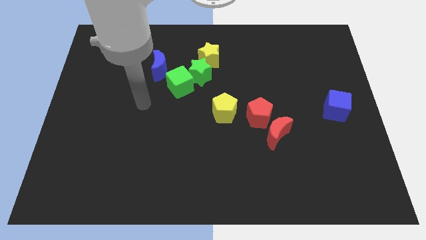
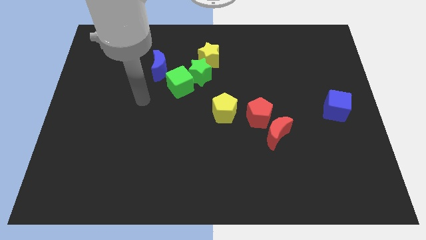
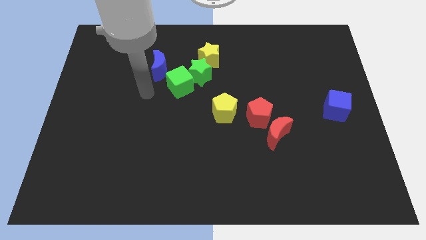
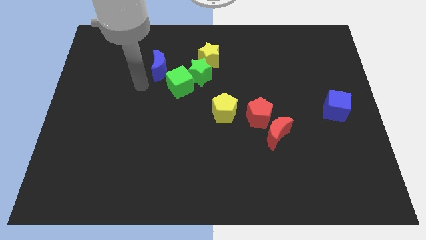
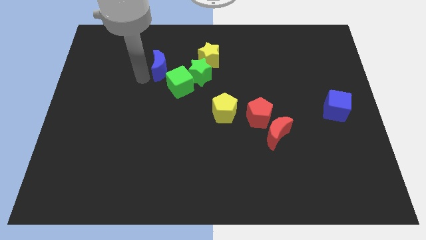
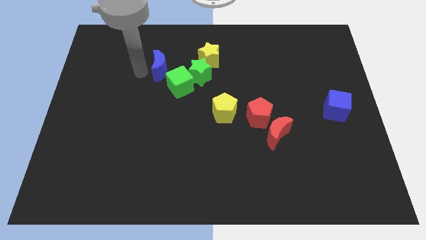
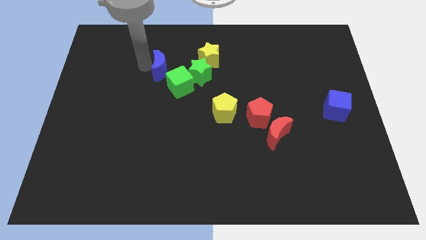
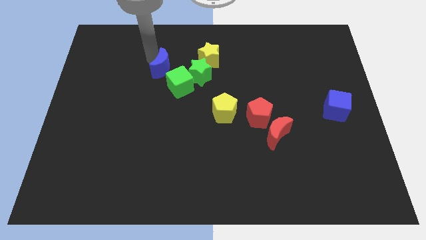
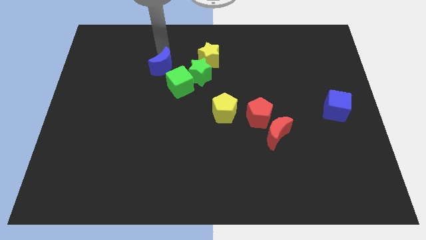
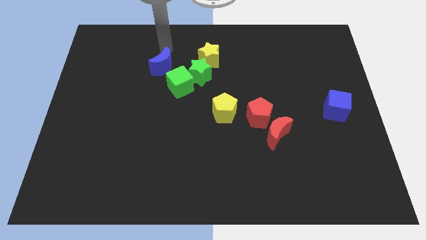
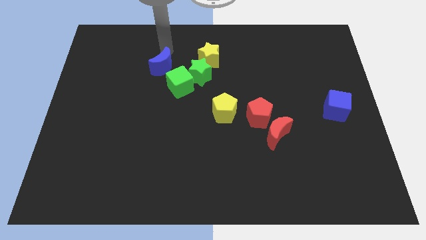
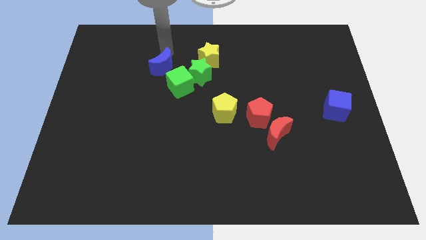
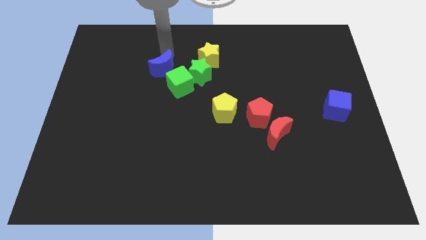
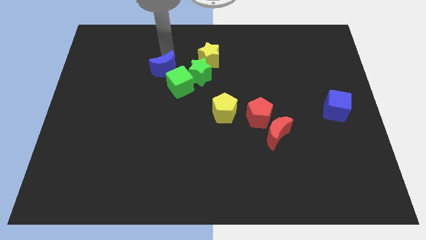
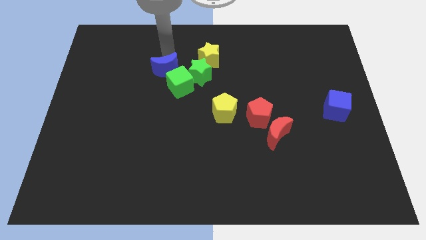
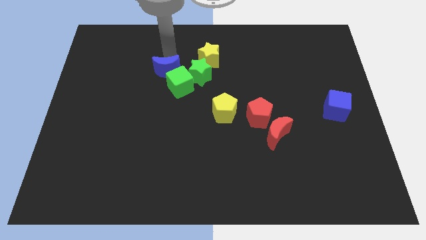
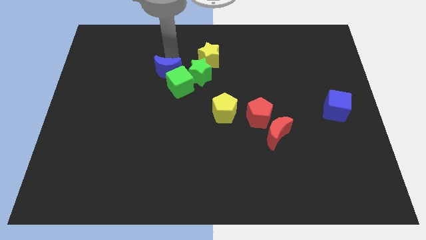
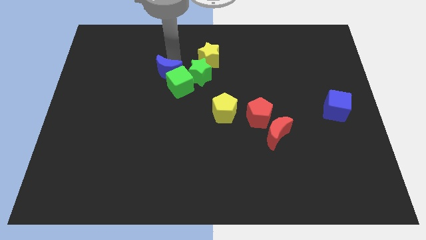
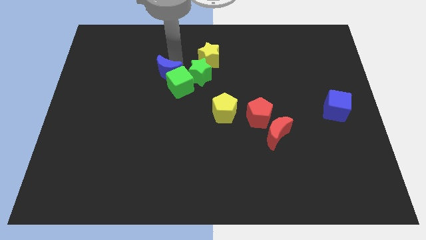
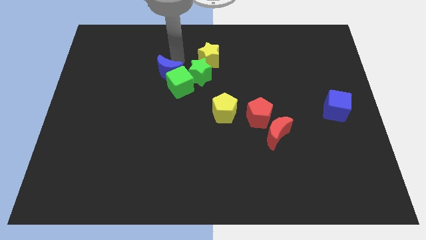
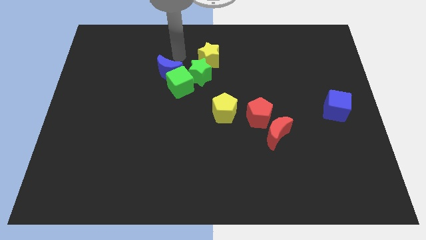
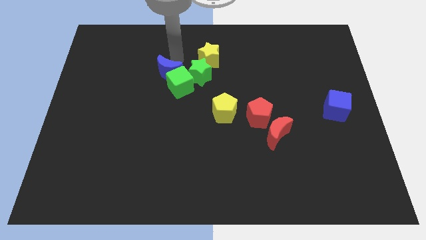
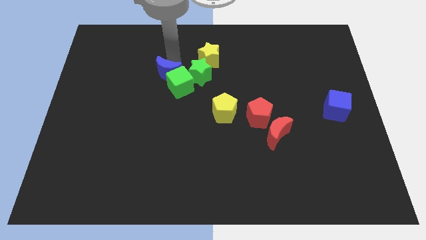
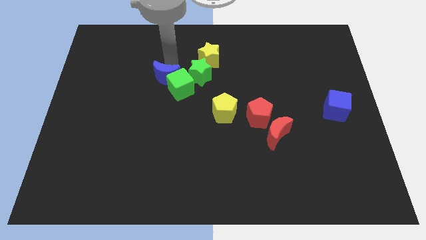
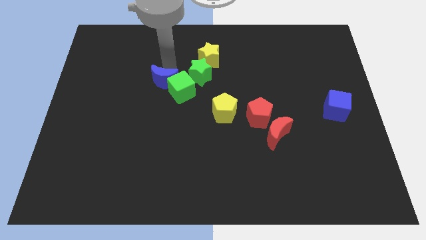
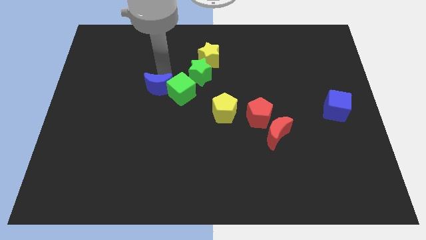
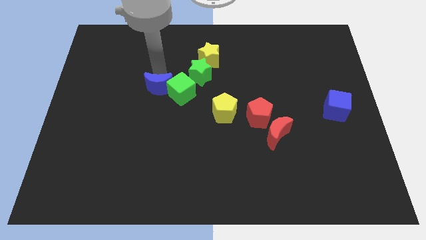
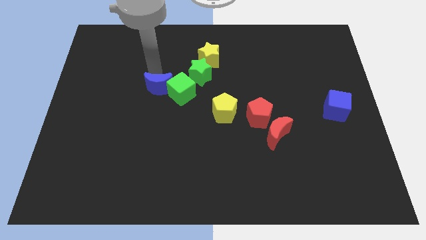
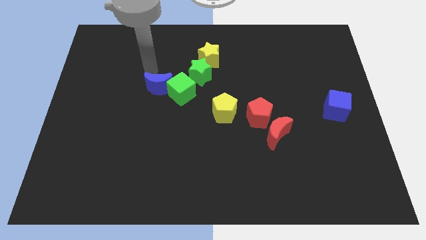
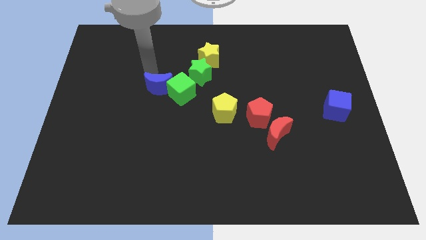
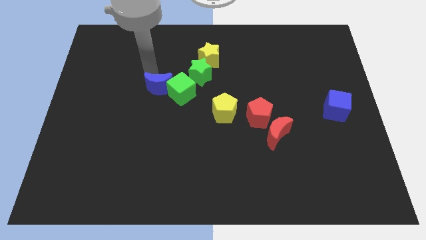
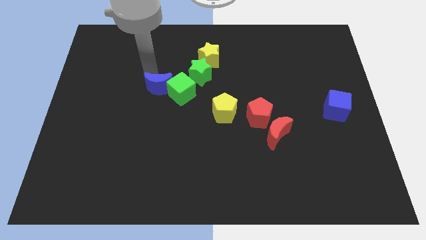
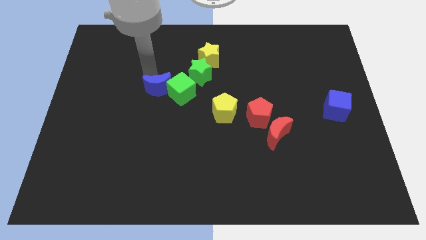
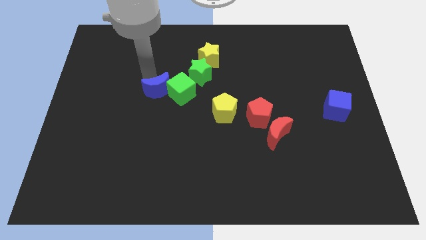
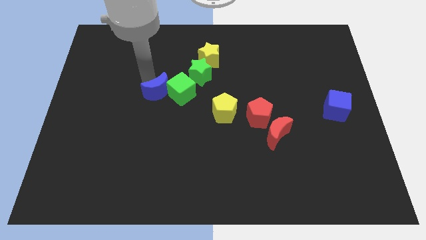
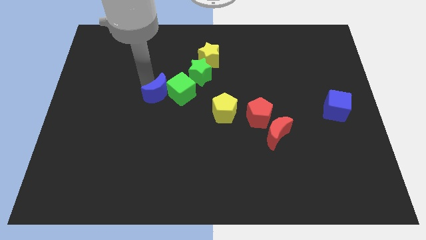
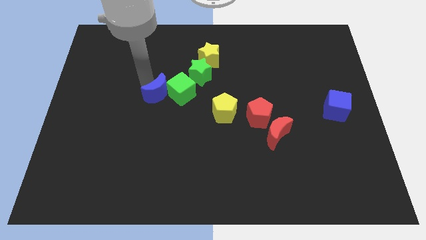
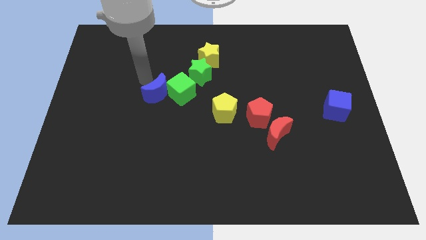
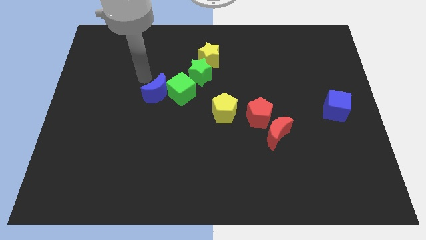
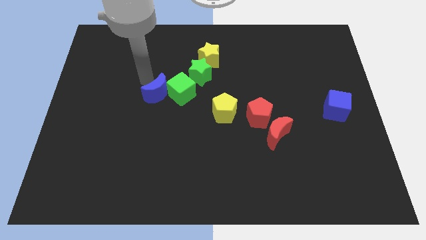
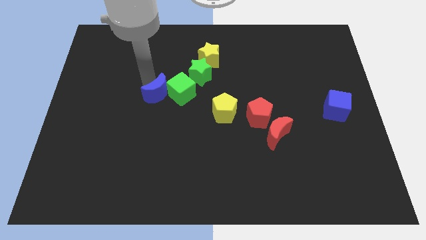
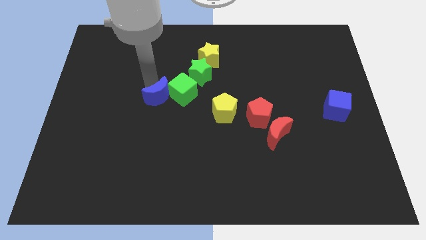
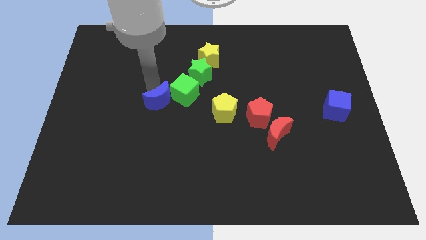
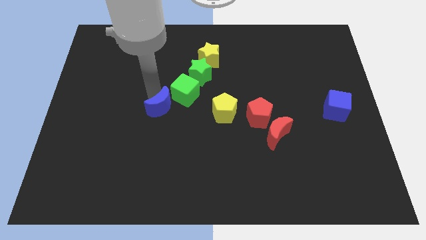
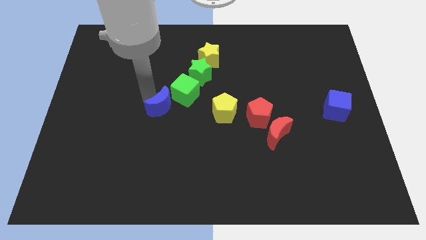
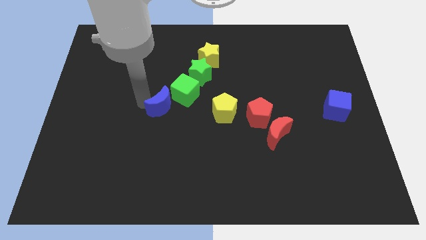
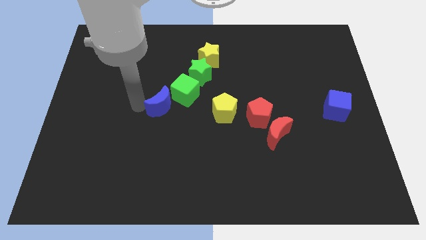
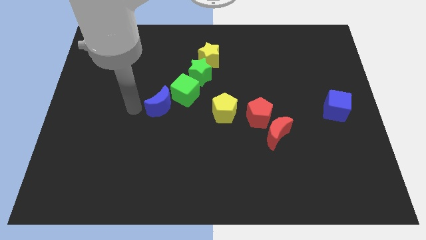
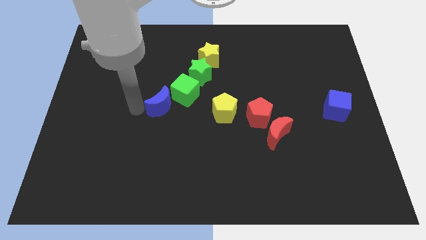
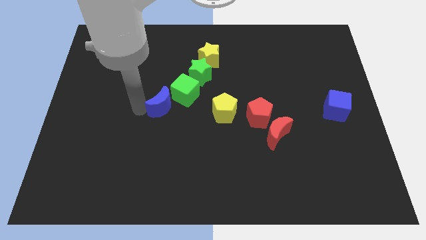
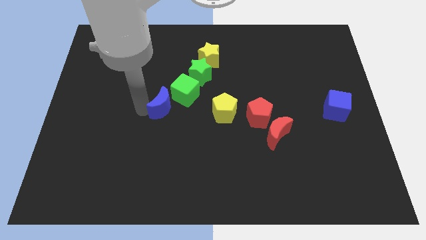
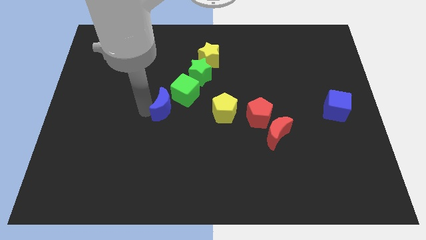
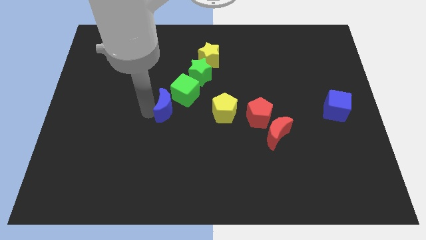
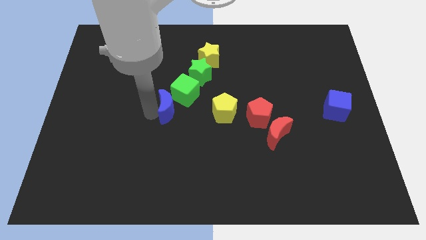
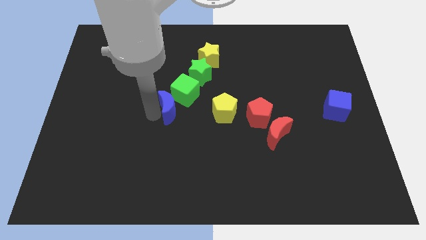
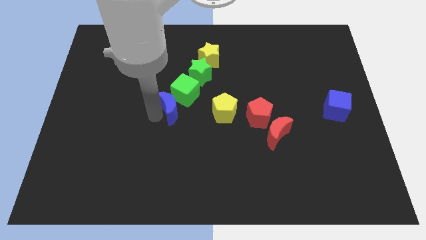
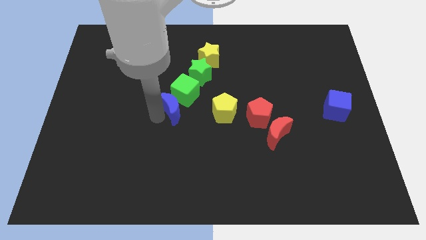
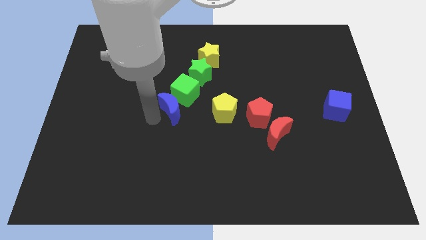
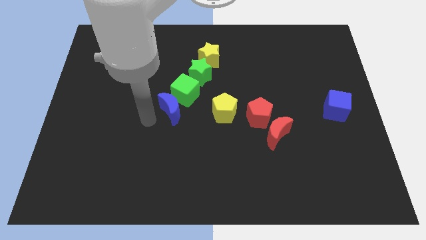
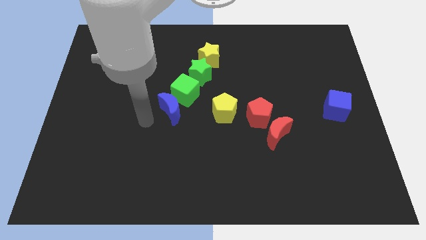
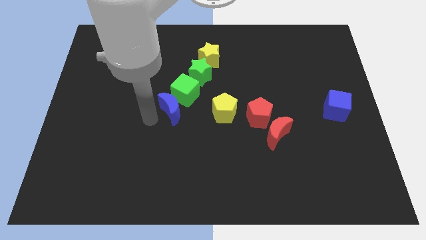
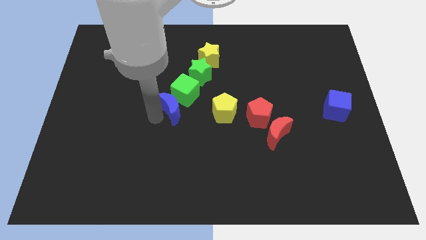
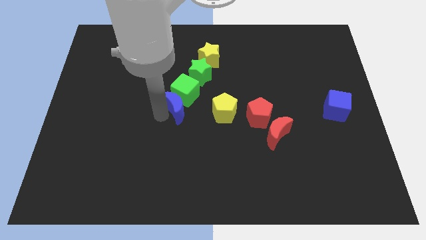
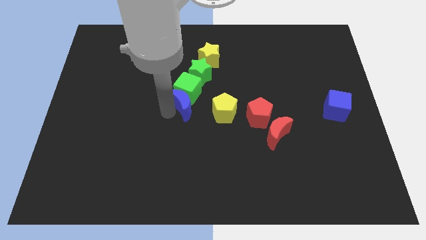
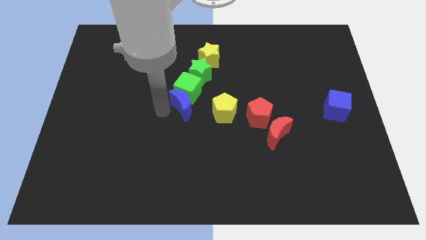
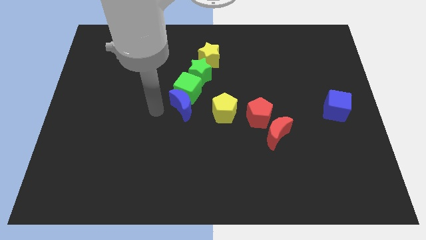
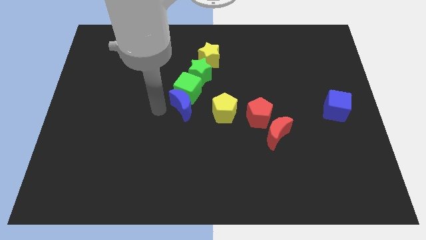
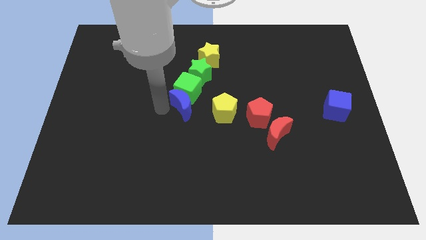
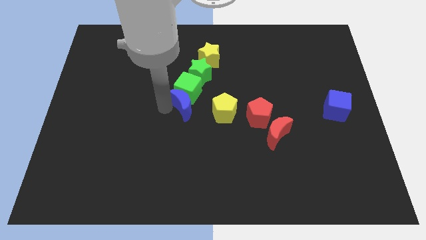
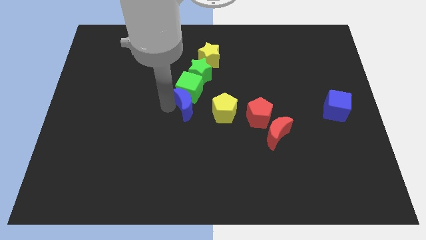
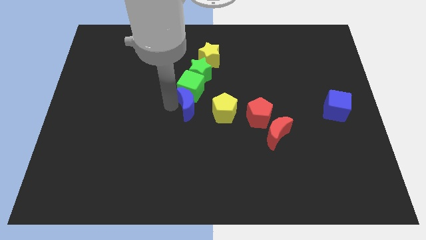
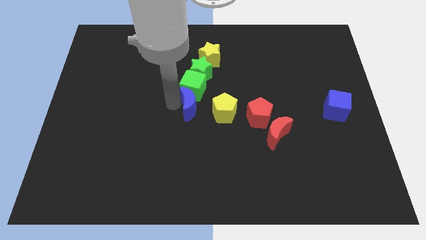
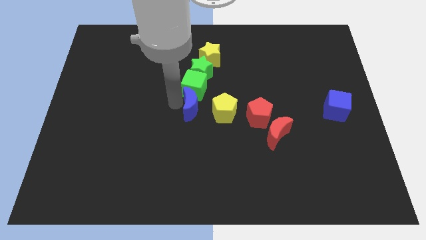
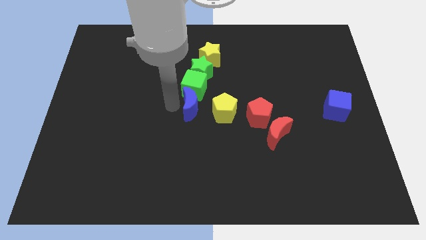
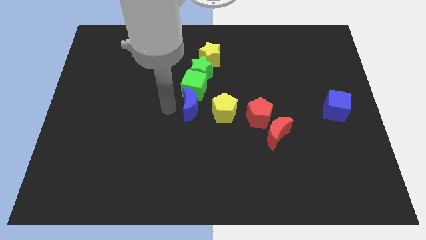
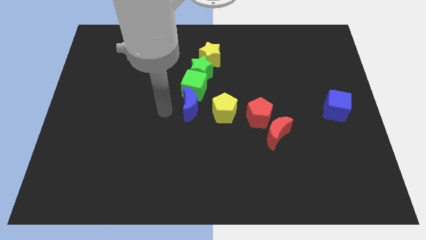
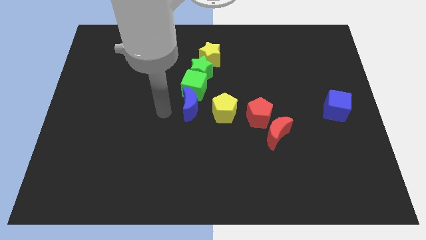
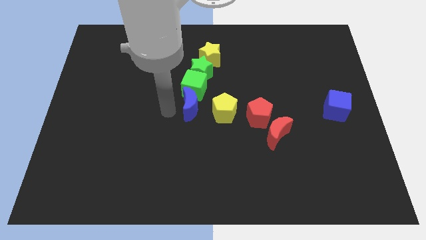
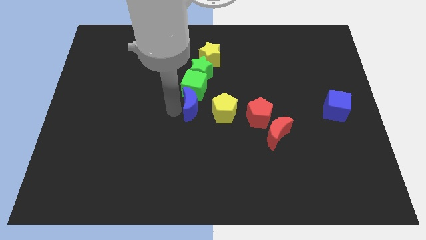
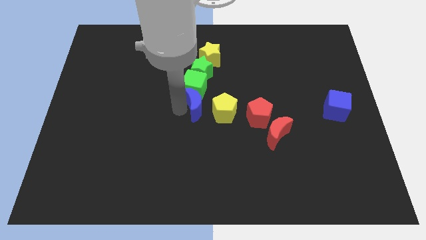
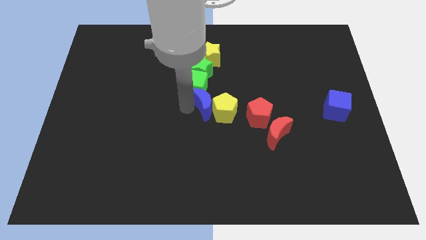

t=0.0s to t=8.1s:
move the blue moon to the yellow pentagon
